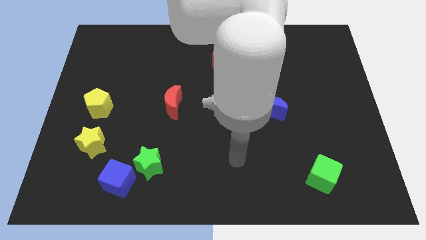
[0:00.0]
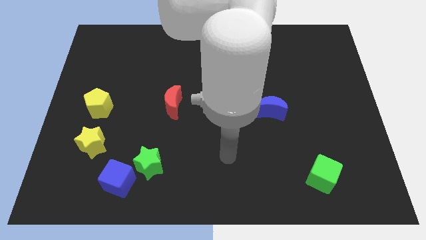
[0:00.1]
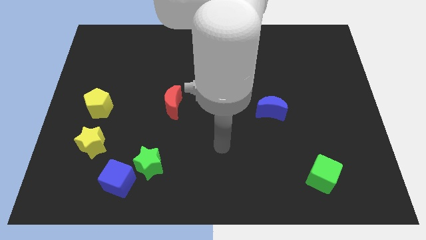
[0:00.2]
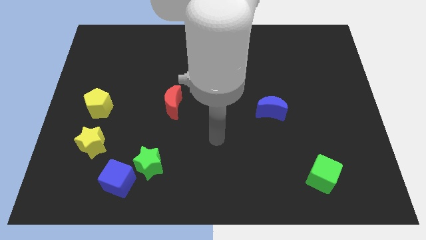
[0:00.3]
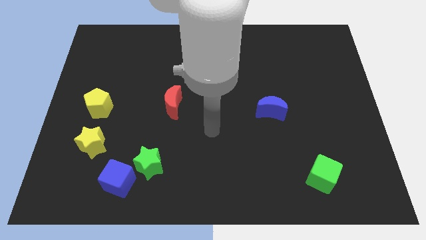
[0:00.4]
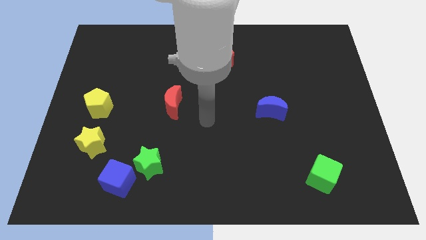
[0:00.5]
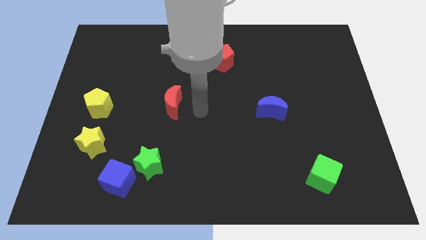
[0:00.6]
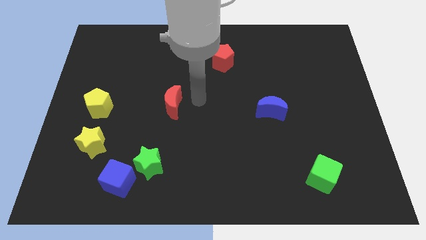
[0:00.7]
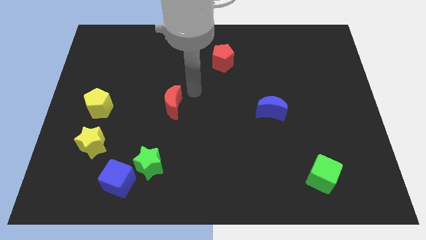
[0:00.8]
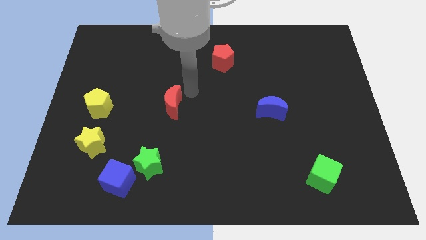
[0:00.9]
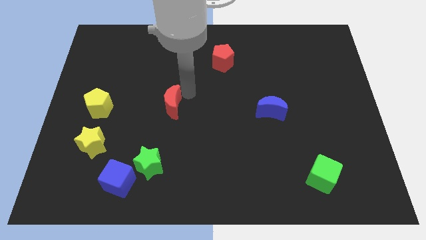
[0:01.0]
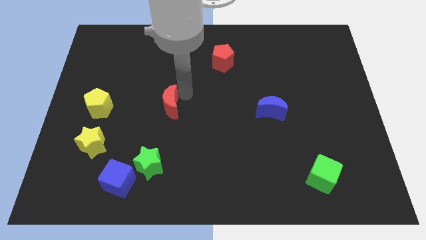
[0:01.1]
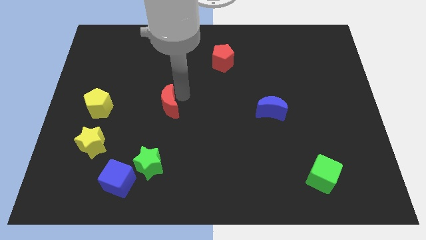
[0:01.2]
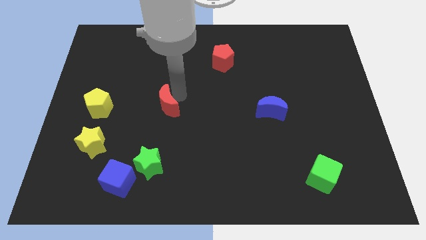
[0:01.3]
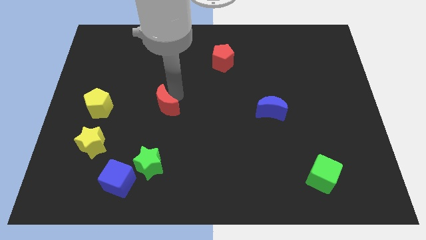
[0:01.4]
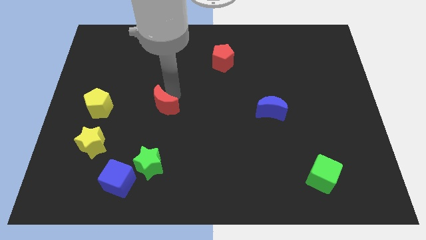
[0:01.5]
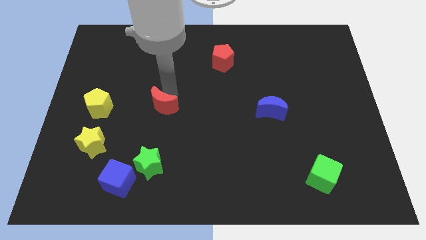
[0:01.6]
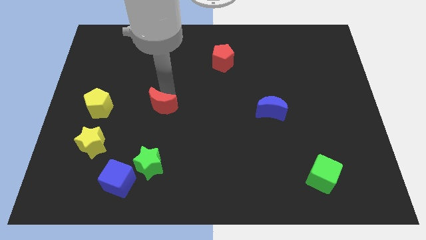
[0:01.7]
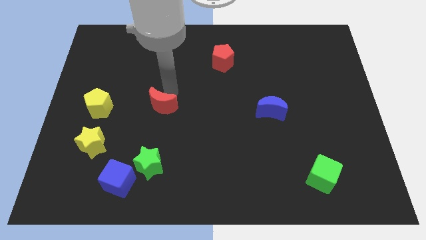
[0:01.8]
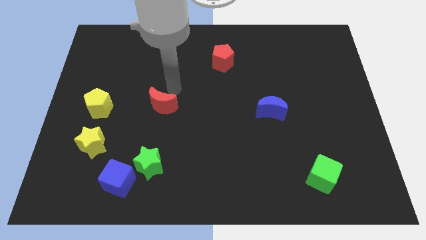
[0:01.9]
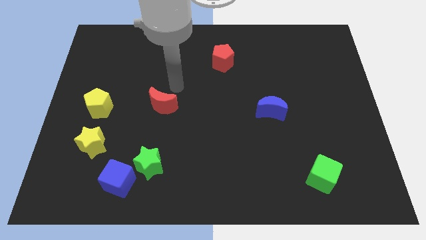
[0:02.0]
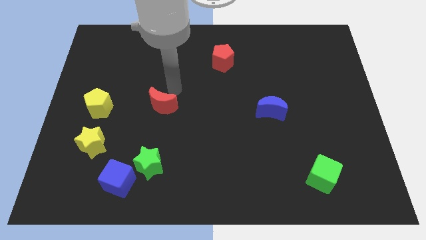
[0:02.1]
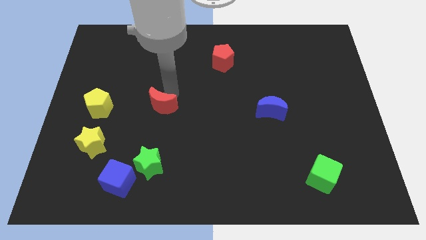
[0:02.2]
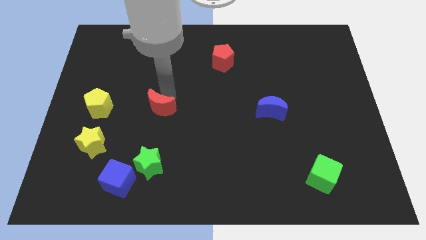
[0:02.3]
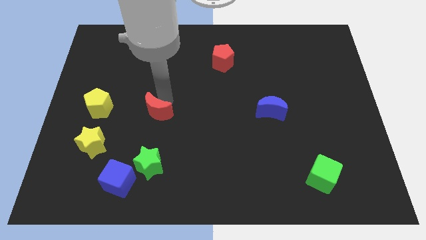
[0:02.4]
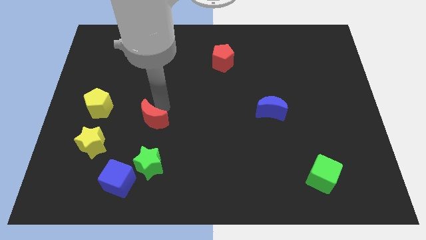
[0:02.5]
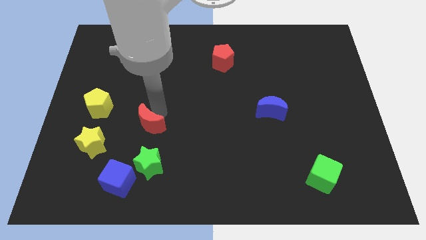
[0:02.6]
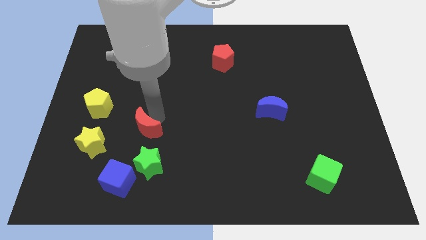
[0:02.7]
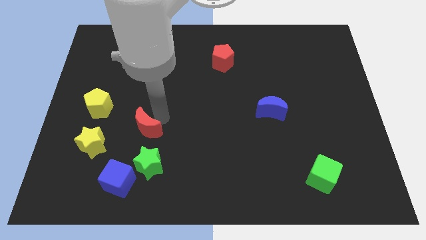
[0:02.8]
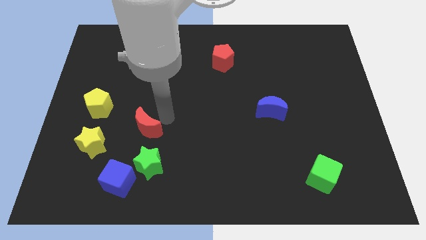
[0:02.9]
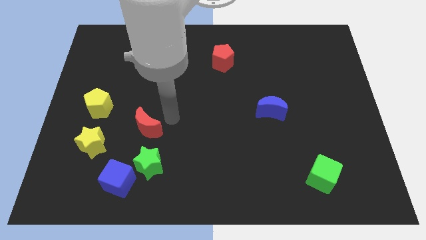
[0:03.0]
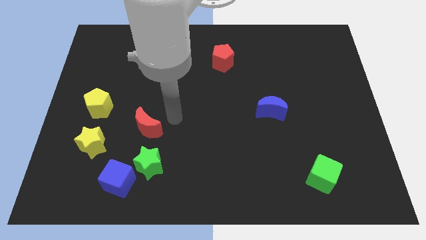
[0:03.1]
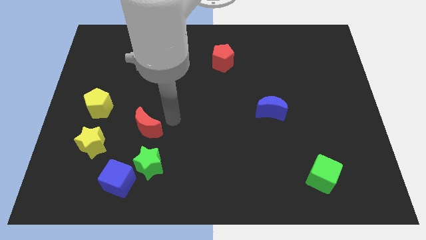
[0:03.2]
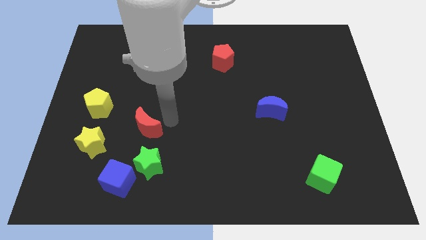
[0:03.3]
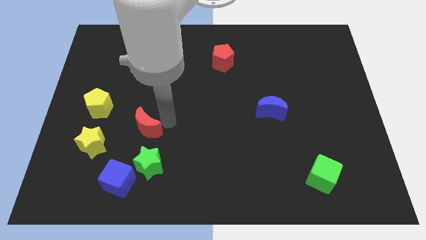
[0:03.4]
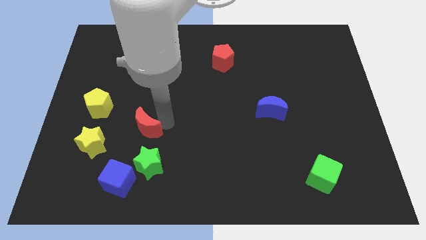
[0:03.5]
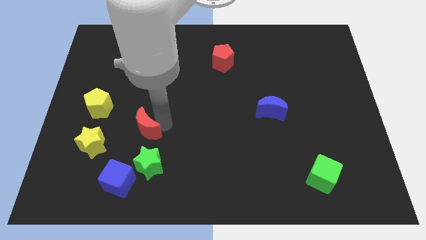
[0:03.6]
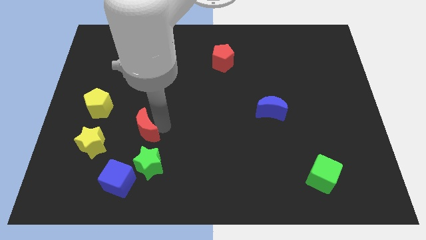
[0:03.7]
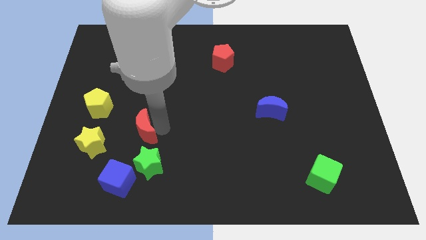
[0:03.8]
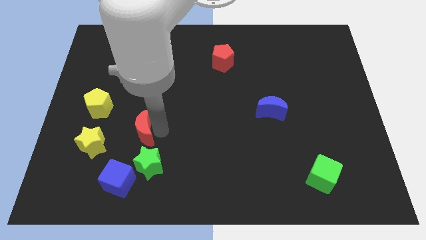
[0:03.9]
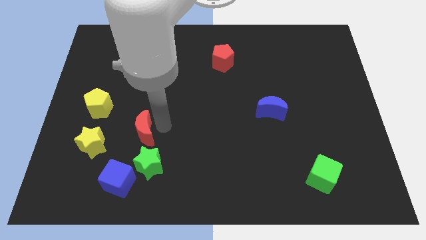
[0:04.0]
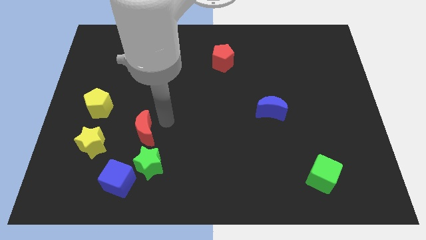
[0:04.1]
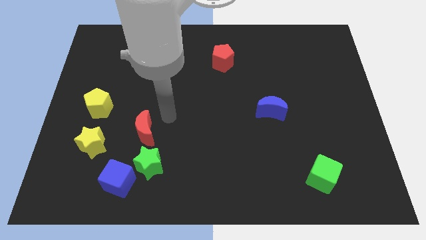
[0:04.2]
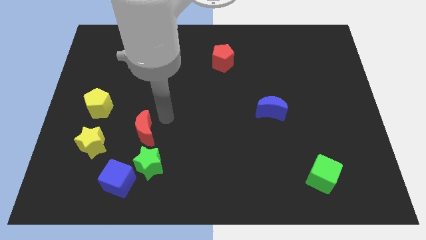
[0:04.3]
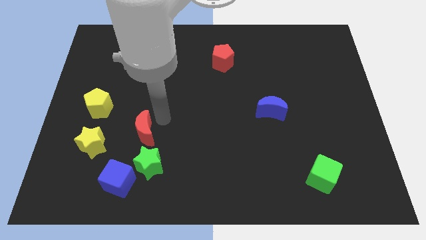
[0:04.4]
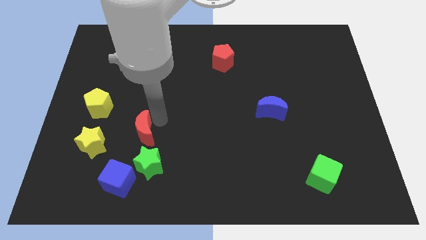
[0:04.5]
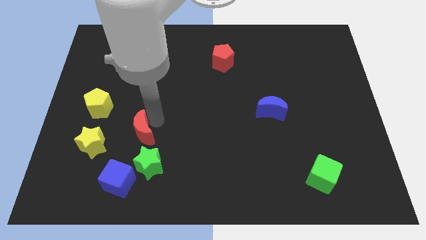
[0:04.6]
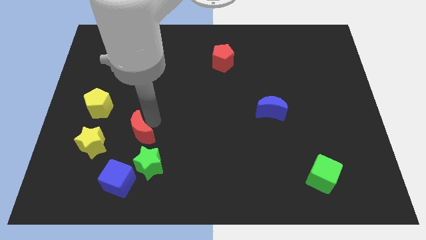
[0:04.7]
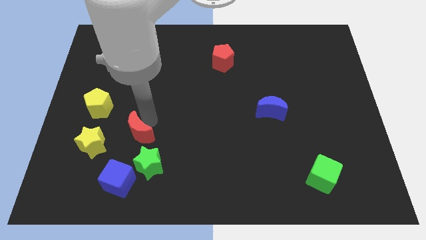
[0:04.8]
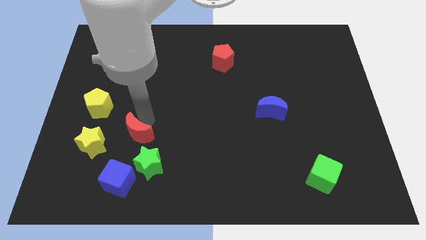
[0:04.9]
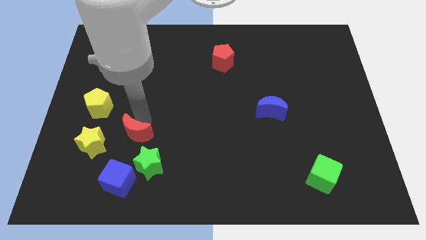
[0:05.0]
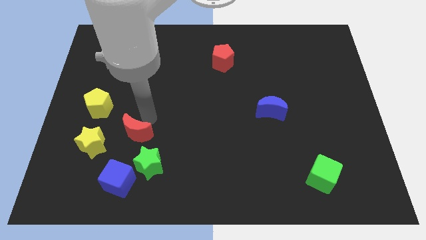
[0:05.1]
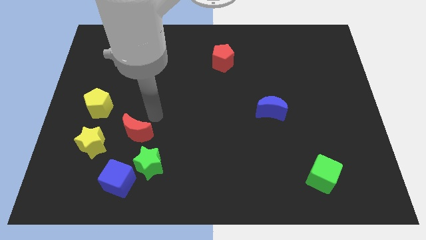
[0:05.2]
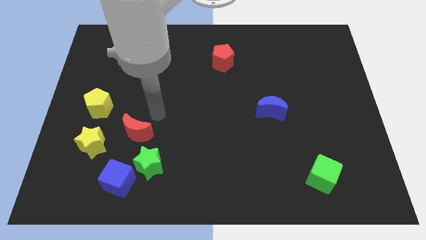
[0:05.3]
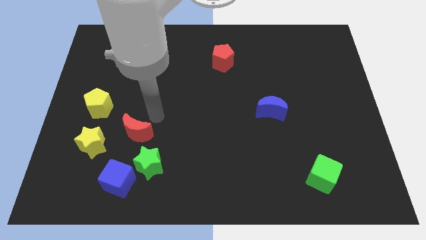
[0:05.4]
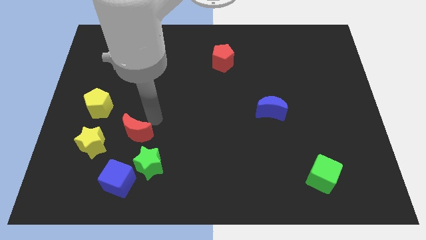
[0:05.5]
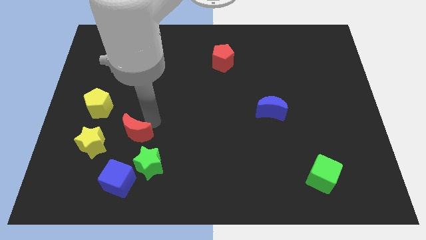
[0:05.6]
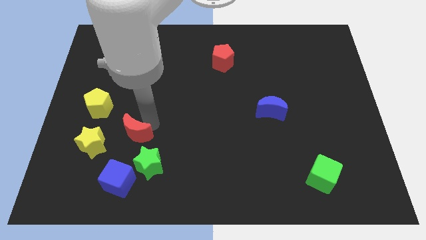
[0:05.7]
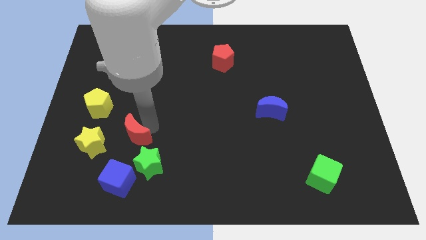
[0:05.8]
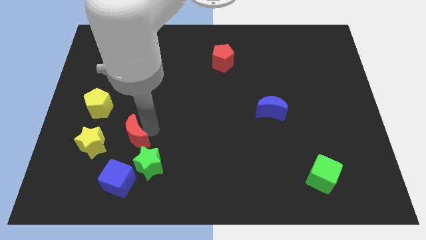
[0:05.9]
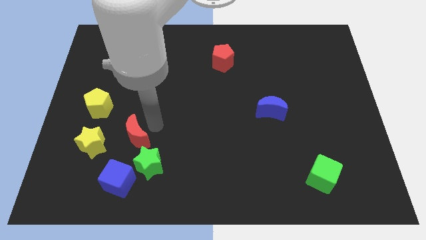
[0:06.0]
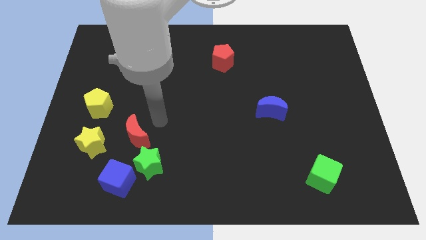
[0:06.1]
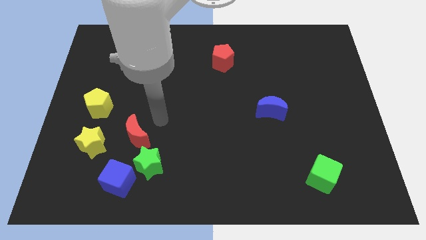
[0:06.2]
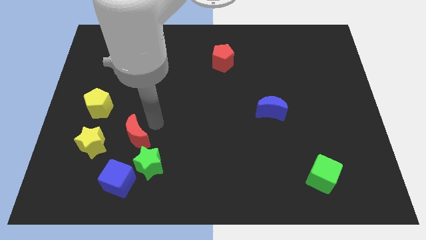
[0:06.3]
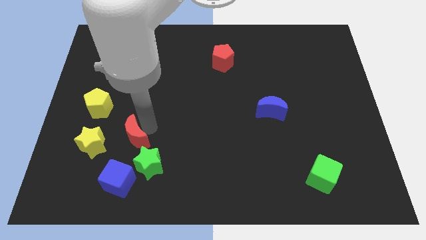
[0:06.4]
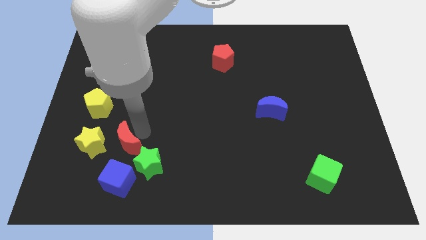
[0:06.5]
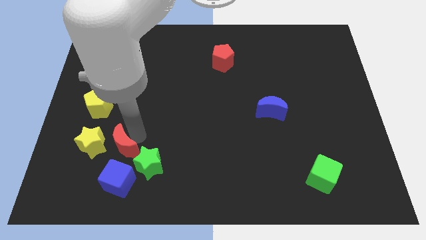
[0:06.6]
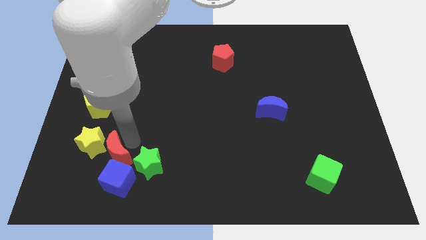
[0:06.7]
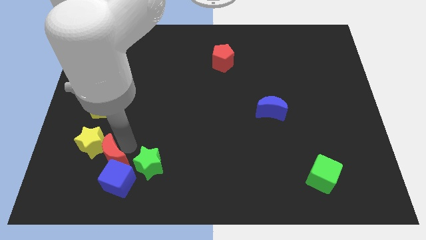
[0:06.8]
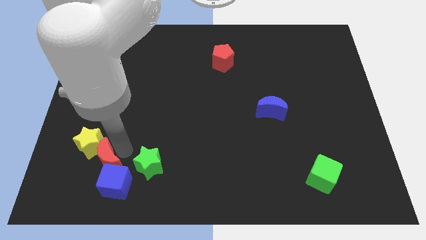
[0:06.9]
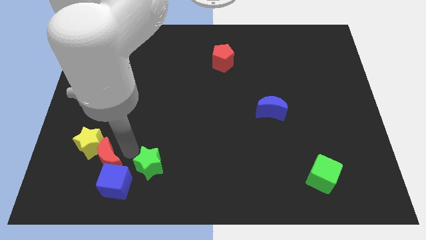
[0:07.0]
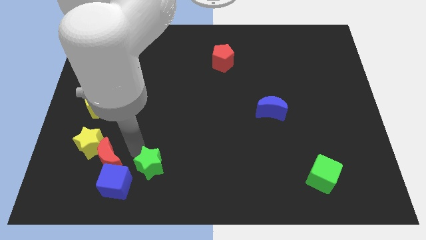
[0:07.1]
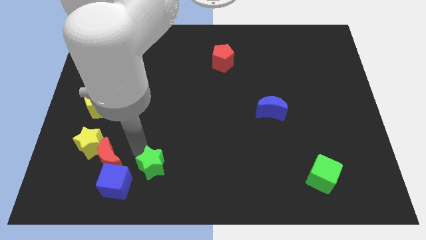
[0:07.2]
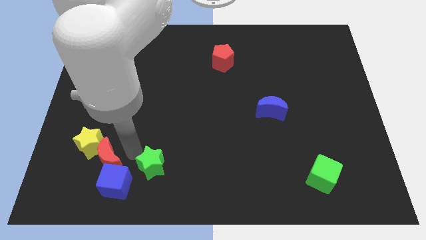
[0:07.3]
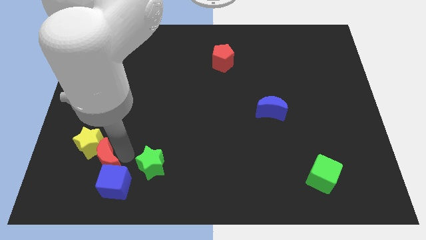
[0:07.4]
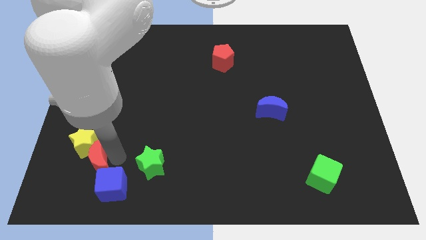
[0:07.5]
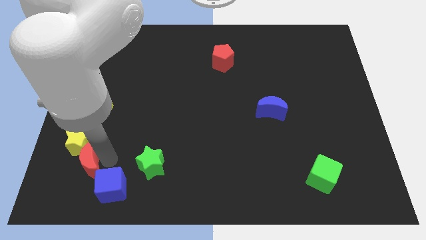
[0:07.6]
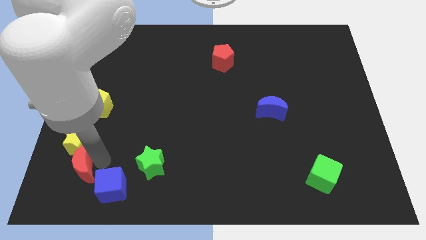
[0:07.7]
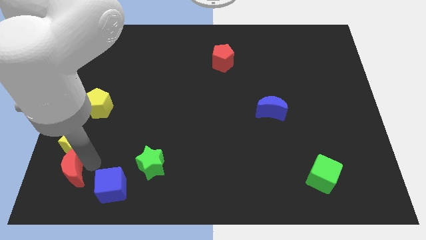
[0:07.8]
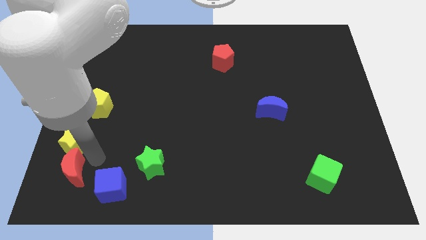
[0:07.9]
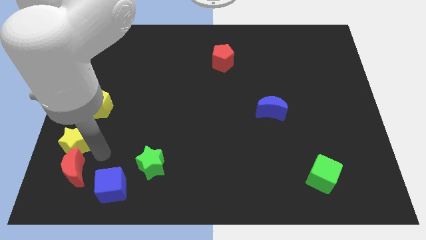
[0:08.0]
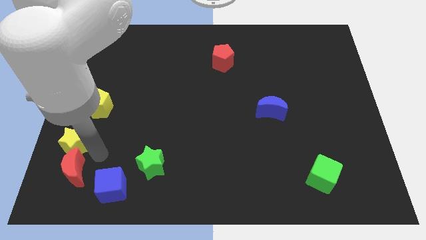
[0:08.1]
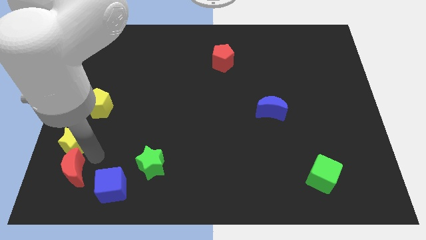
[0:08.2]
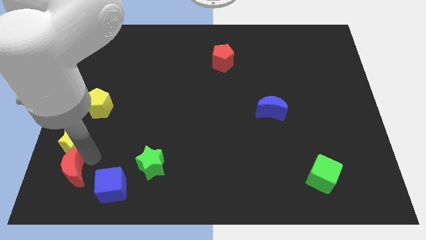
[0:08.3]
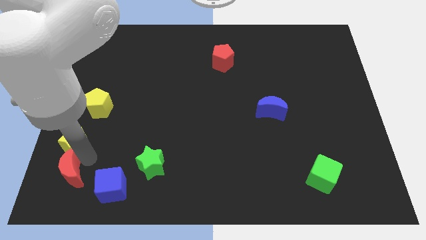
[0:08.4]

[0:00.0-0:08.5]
move the red moon to the bottom left corner
